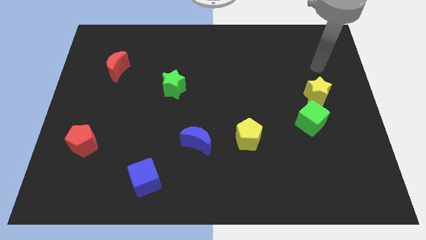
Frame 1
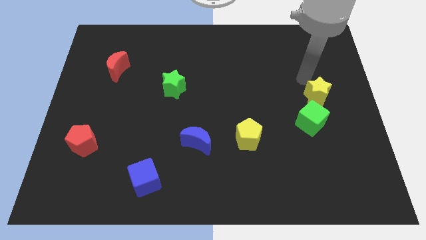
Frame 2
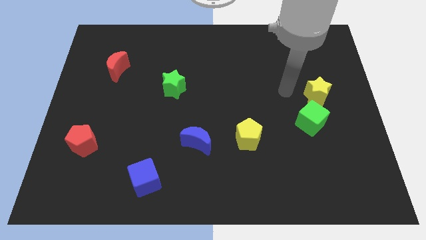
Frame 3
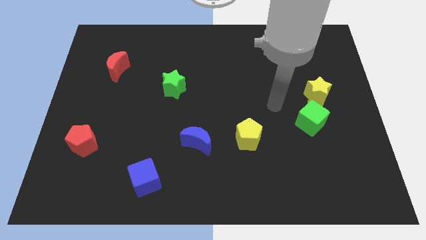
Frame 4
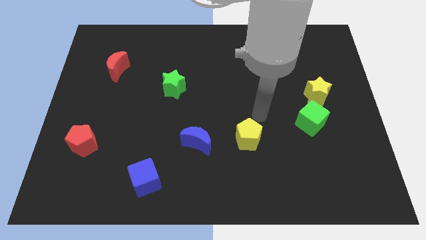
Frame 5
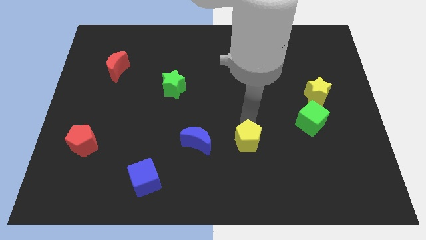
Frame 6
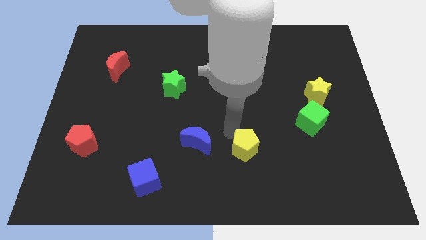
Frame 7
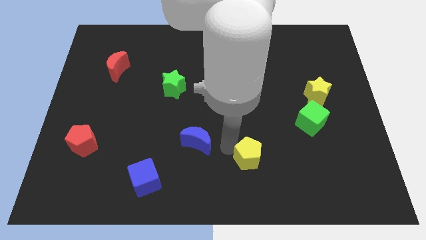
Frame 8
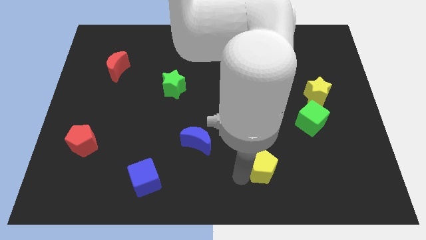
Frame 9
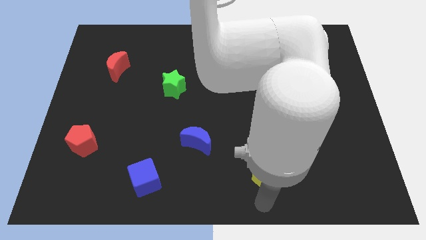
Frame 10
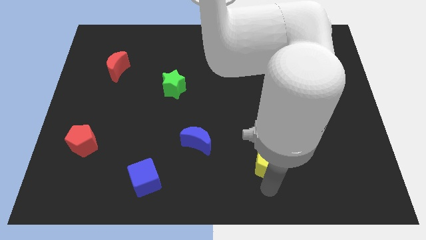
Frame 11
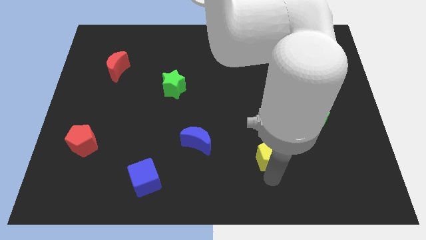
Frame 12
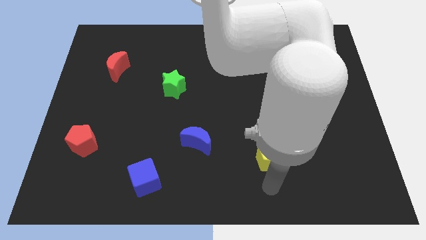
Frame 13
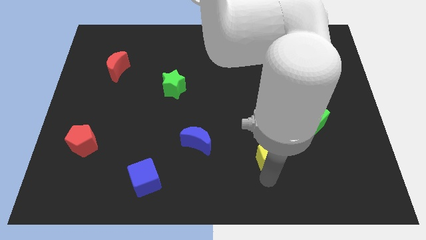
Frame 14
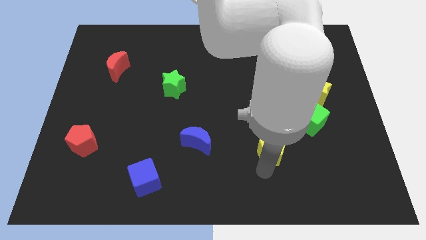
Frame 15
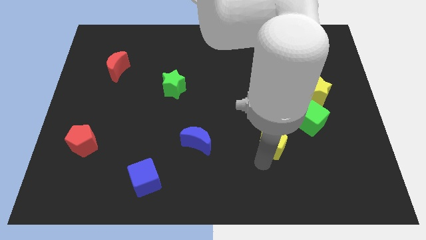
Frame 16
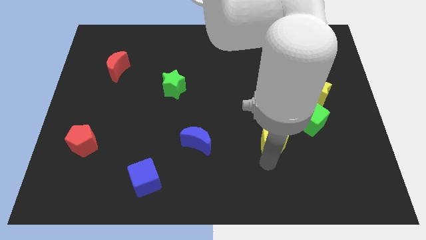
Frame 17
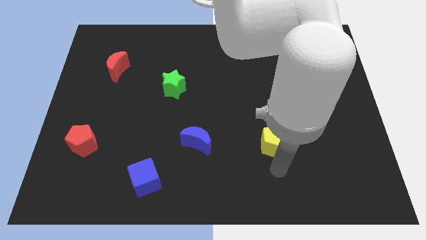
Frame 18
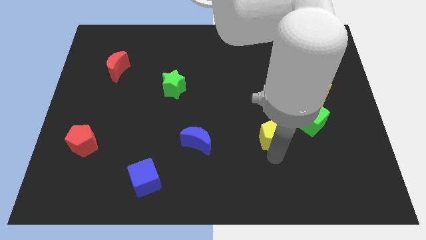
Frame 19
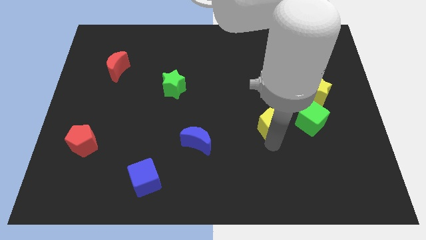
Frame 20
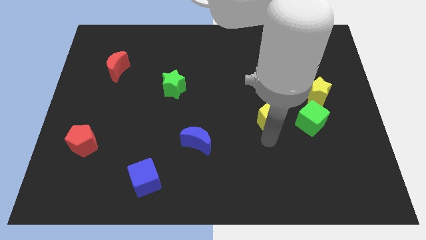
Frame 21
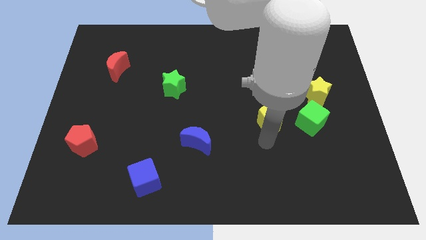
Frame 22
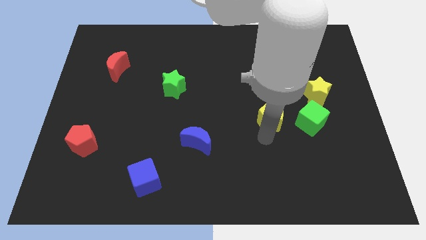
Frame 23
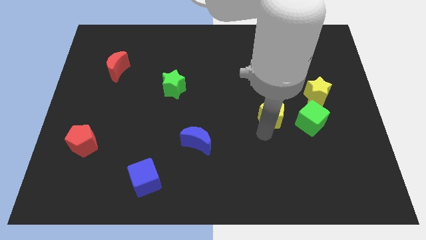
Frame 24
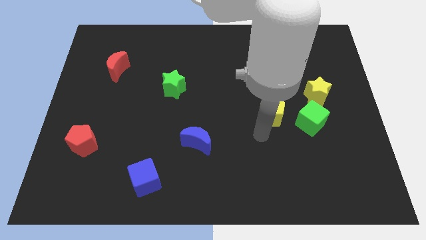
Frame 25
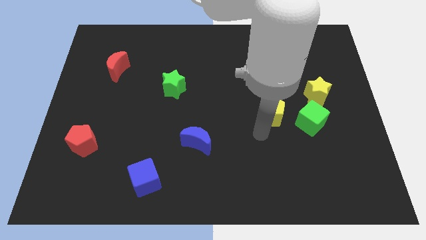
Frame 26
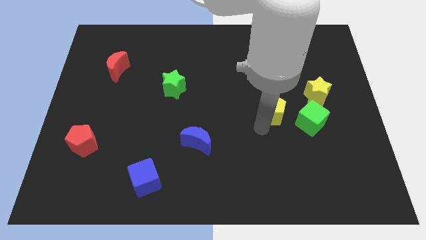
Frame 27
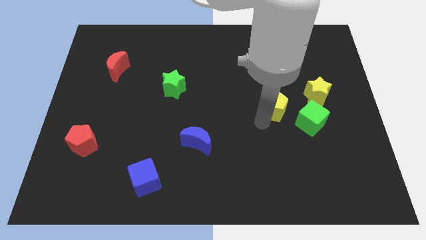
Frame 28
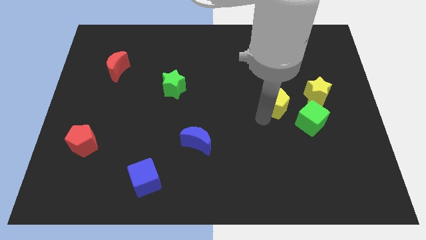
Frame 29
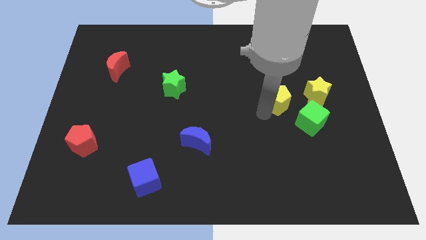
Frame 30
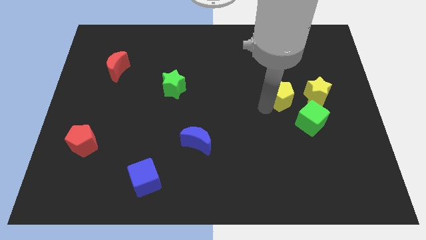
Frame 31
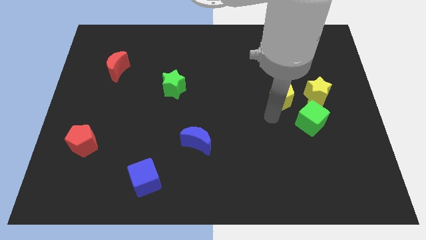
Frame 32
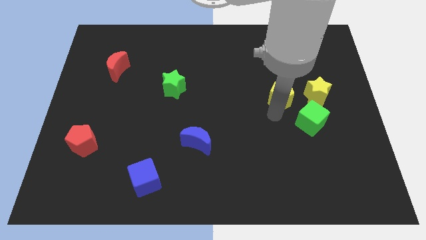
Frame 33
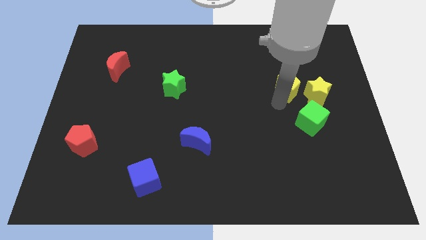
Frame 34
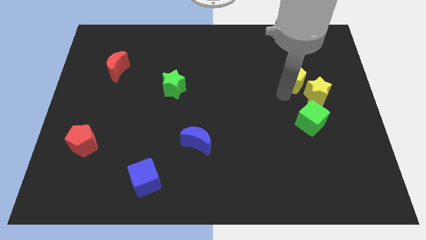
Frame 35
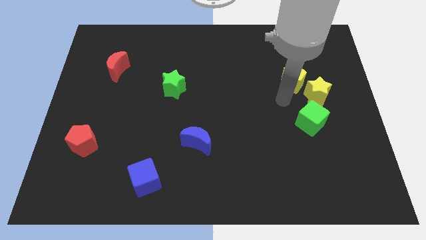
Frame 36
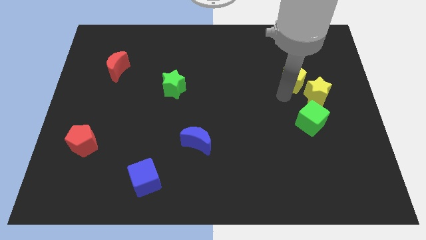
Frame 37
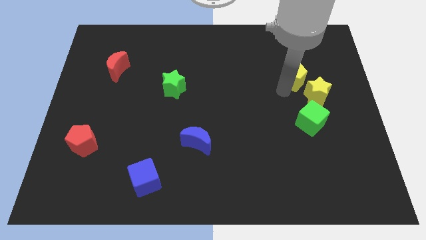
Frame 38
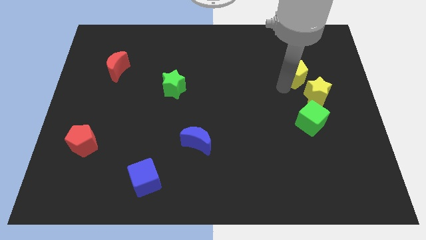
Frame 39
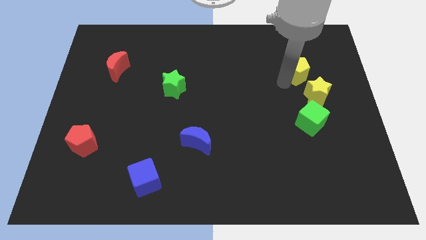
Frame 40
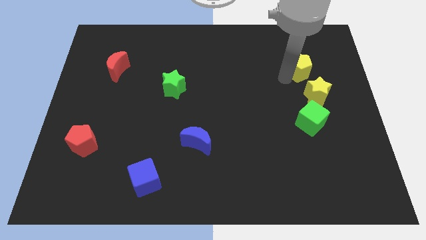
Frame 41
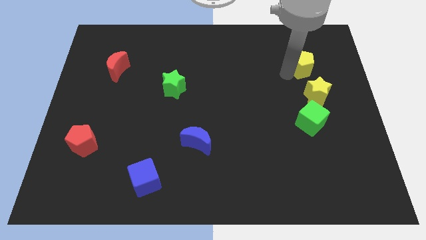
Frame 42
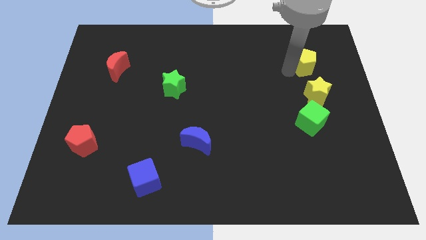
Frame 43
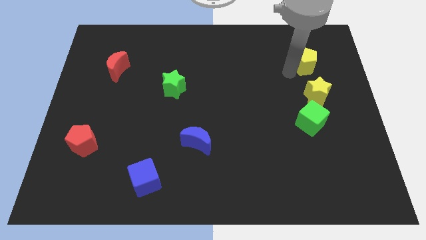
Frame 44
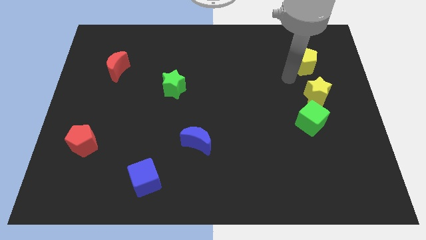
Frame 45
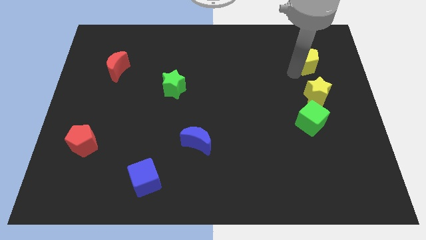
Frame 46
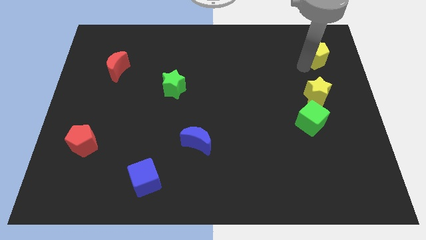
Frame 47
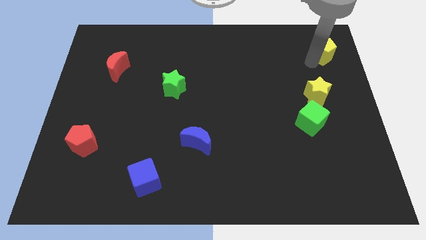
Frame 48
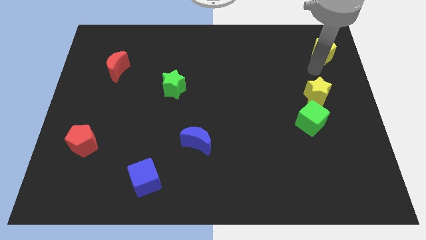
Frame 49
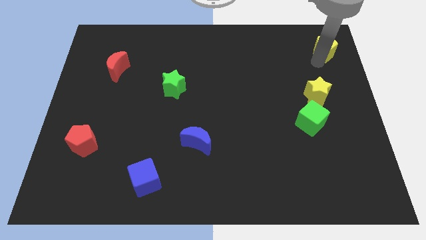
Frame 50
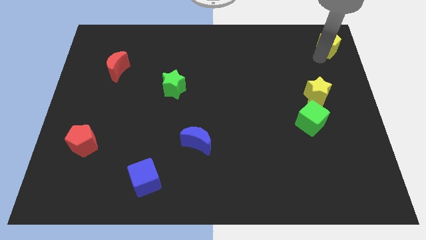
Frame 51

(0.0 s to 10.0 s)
put the yellow pentagon to the top right corner

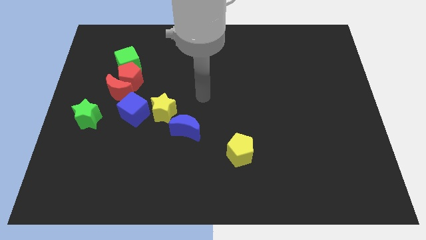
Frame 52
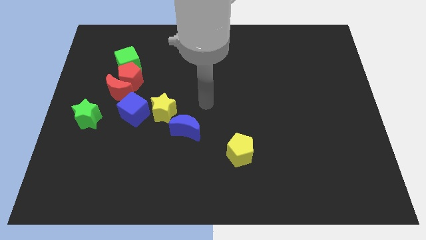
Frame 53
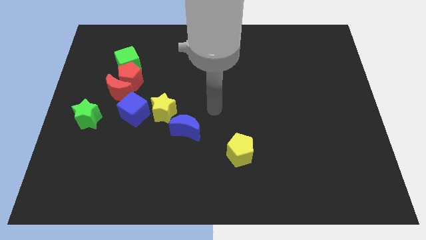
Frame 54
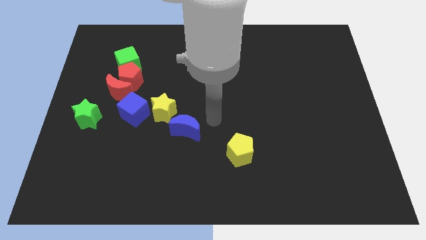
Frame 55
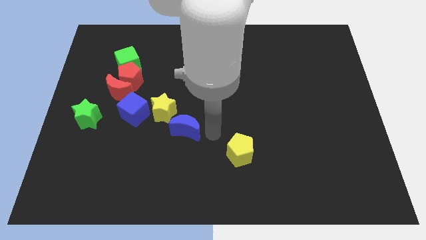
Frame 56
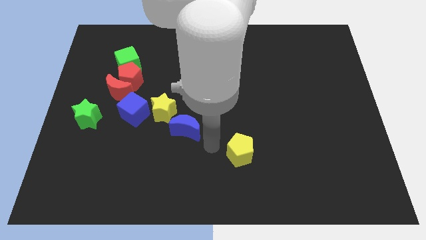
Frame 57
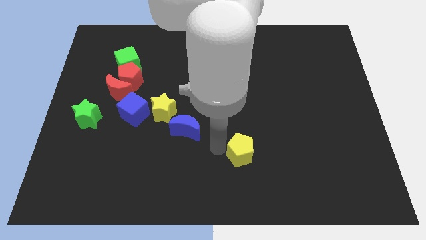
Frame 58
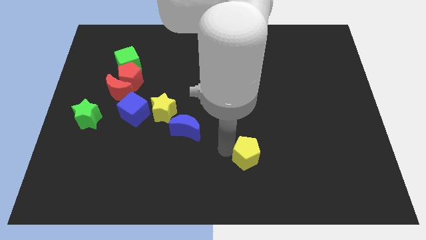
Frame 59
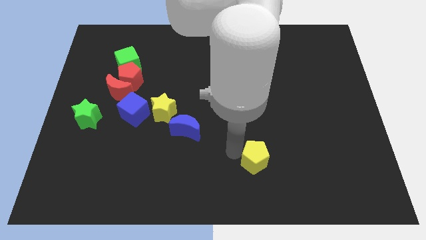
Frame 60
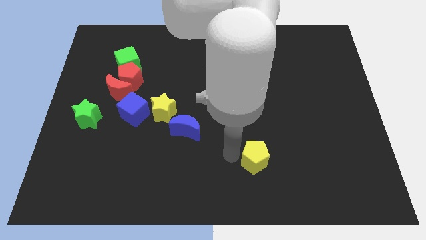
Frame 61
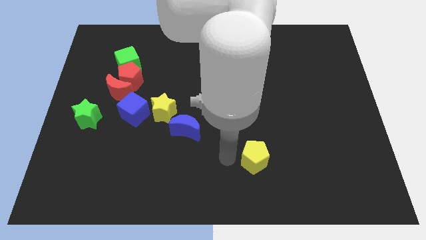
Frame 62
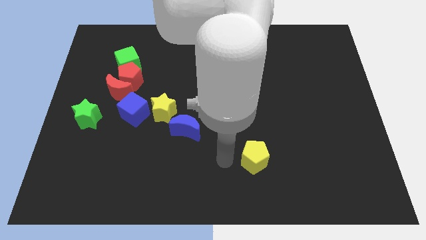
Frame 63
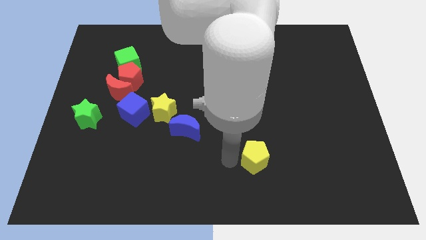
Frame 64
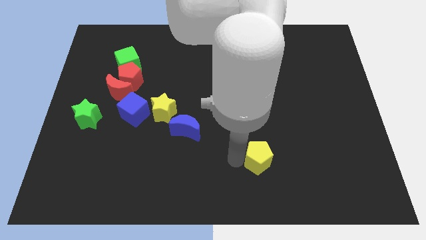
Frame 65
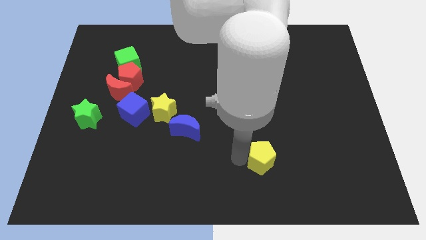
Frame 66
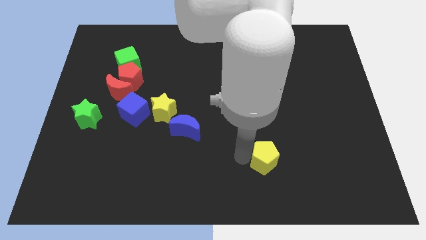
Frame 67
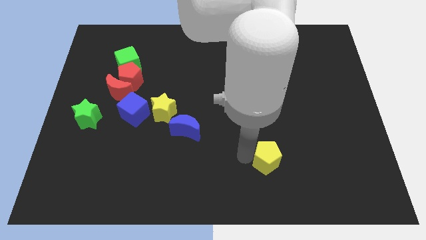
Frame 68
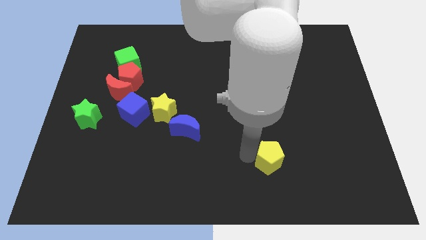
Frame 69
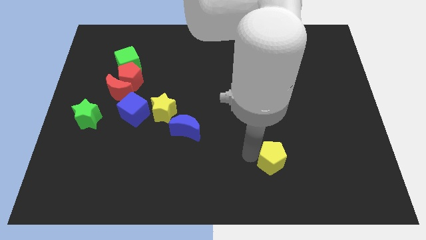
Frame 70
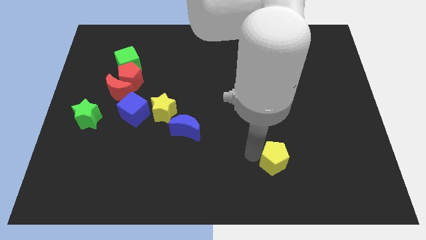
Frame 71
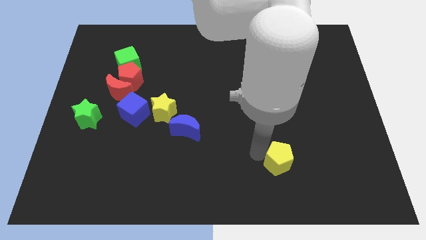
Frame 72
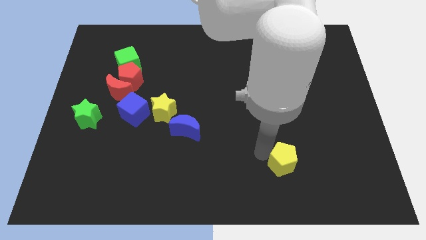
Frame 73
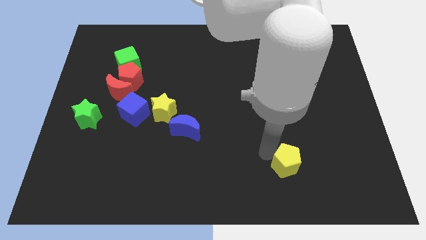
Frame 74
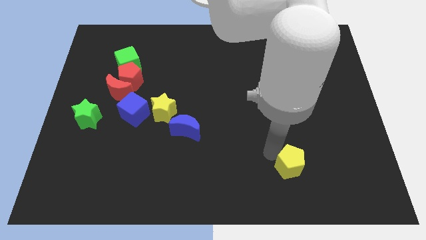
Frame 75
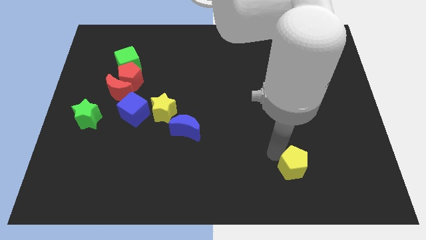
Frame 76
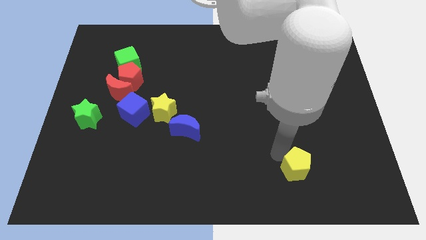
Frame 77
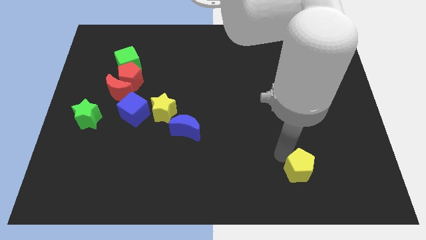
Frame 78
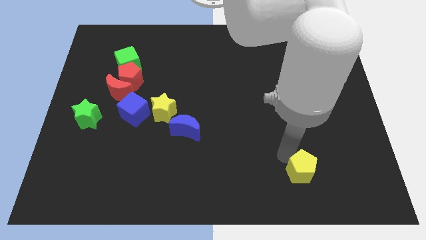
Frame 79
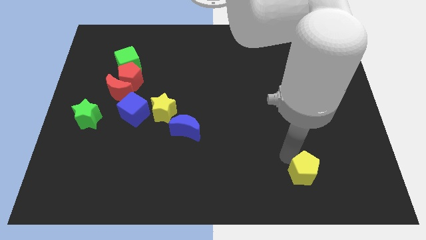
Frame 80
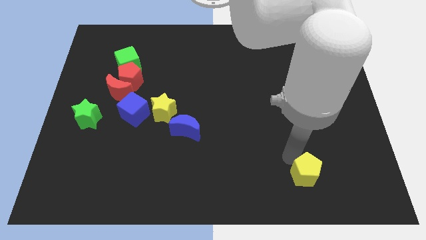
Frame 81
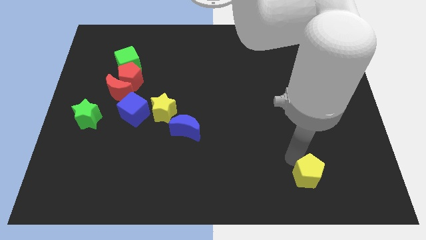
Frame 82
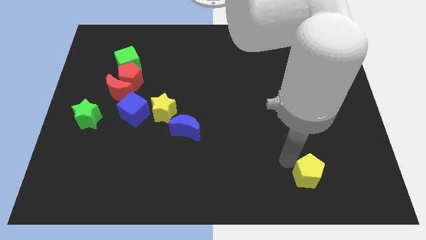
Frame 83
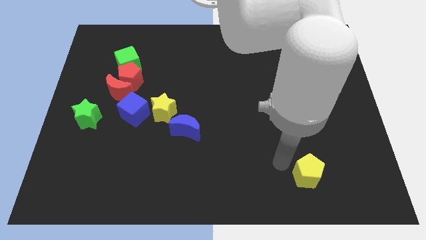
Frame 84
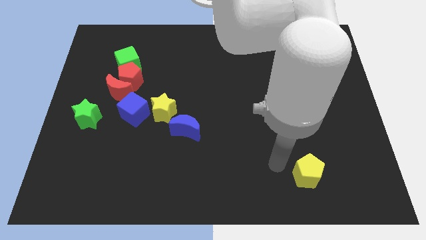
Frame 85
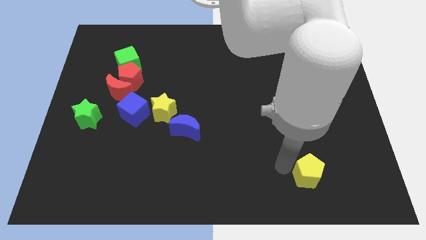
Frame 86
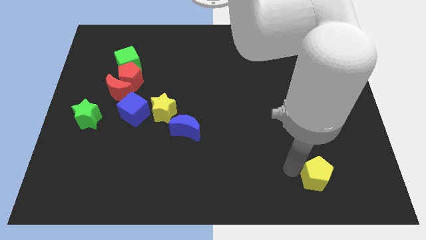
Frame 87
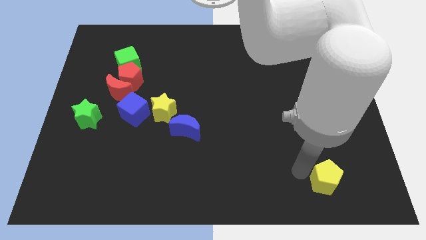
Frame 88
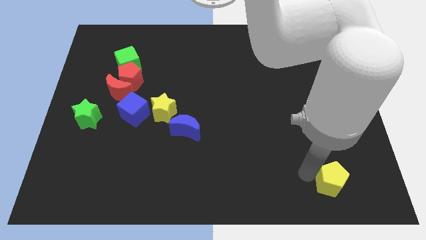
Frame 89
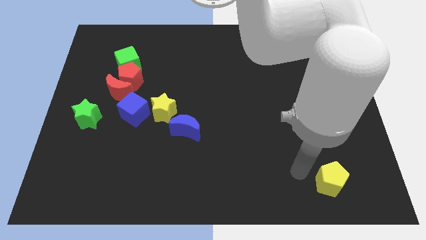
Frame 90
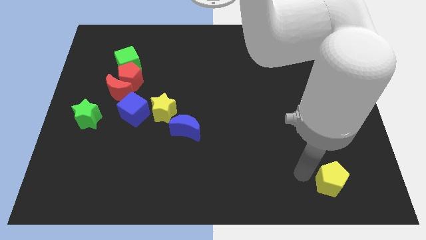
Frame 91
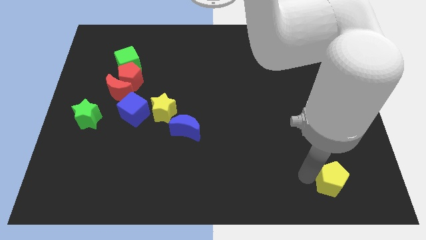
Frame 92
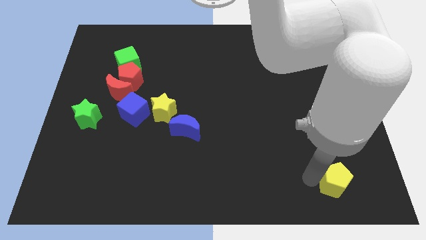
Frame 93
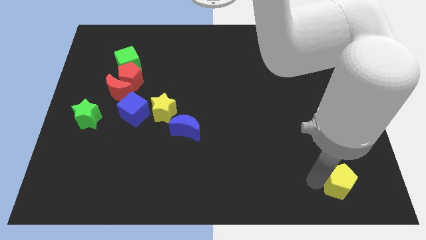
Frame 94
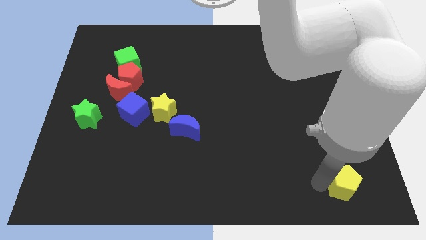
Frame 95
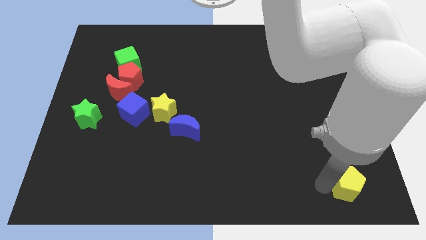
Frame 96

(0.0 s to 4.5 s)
move the yellow pentagon to the bottom right corner
